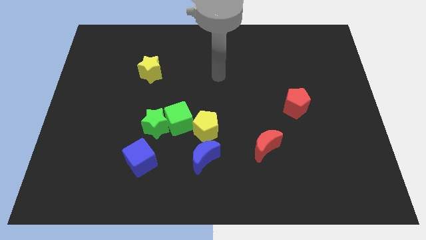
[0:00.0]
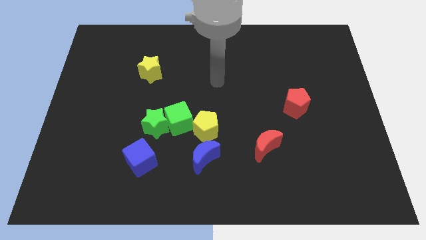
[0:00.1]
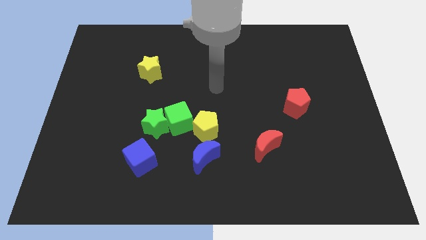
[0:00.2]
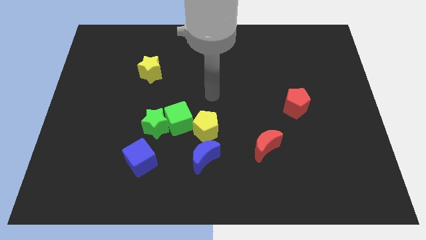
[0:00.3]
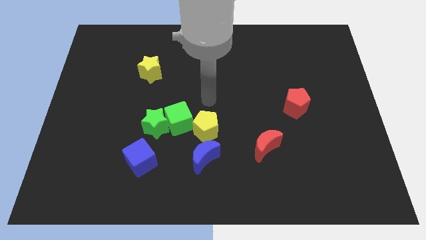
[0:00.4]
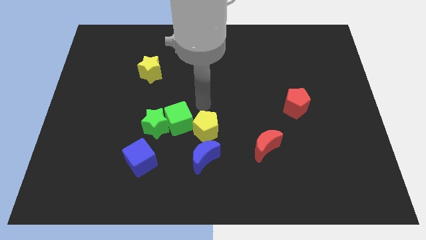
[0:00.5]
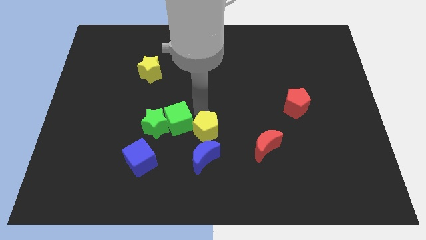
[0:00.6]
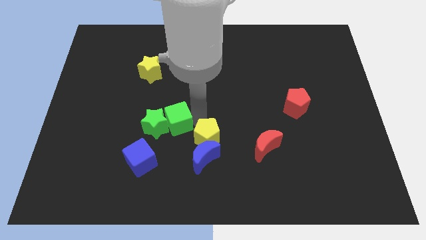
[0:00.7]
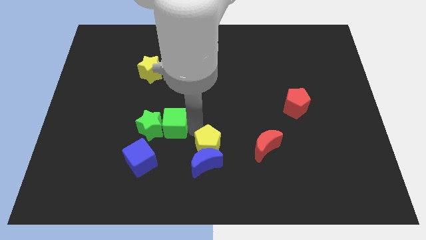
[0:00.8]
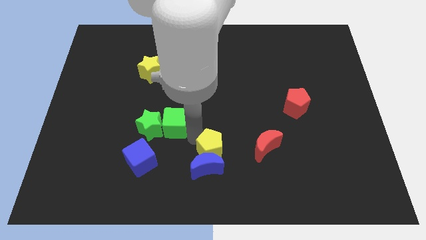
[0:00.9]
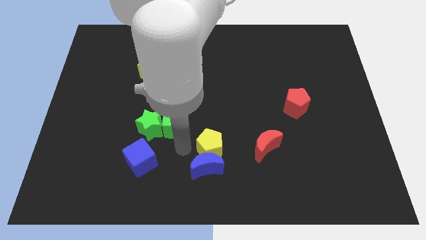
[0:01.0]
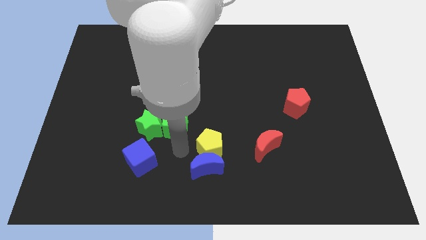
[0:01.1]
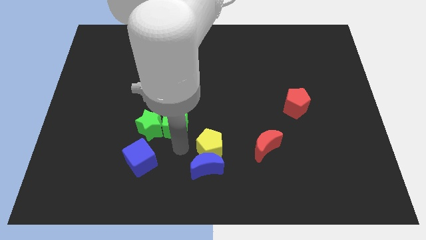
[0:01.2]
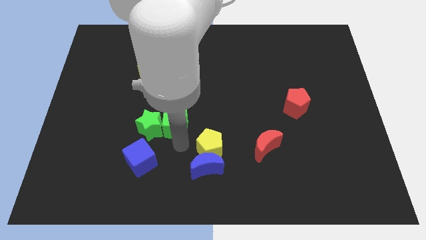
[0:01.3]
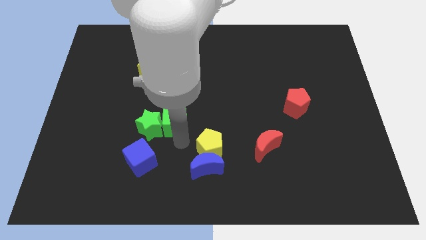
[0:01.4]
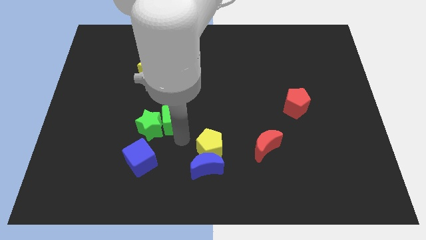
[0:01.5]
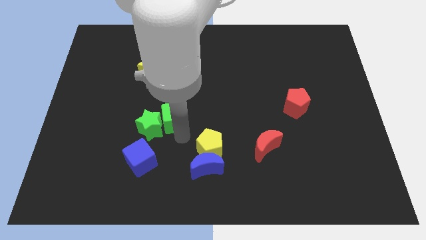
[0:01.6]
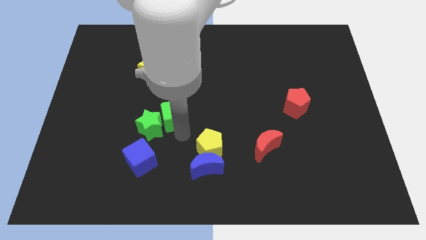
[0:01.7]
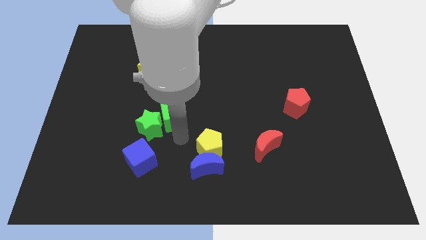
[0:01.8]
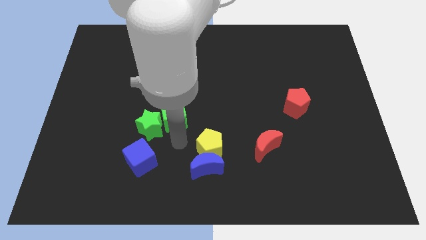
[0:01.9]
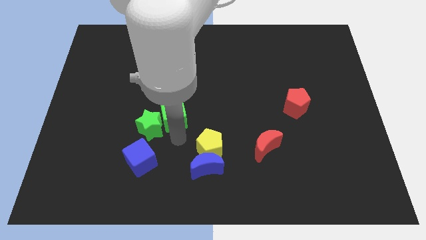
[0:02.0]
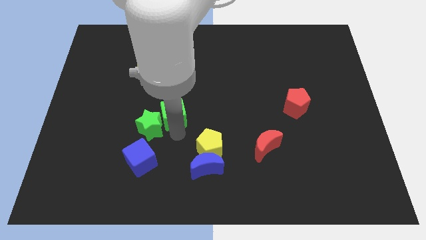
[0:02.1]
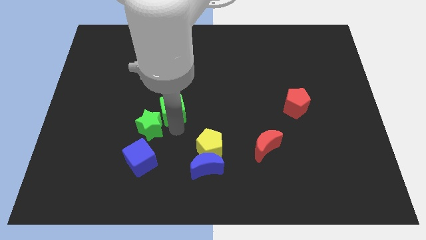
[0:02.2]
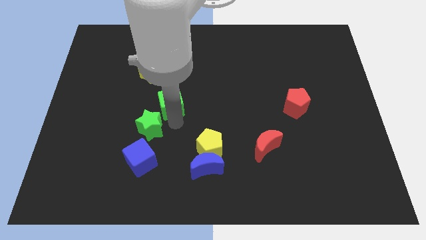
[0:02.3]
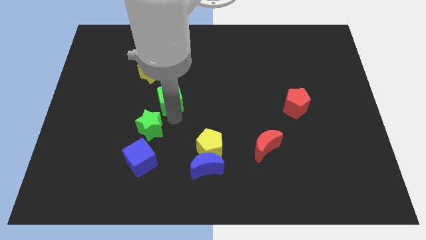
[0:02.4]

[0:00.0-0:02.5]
move the green cube away from the green star and yellow pentagon

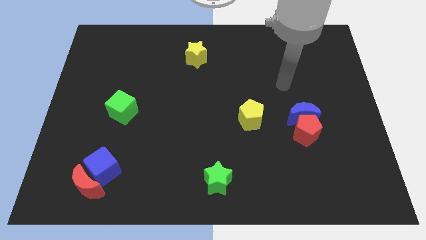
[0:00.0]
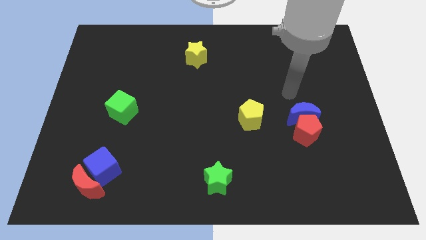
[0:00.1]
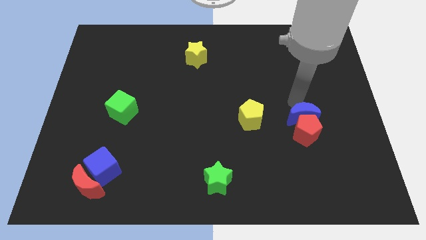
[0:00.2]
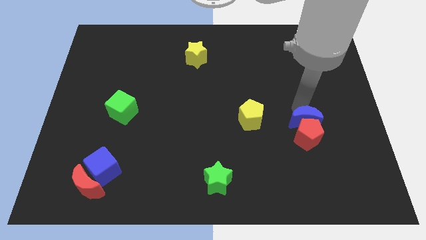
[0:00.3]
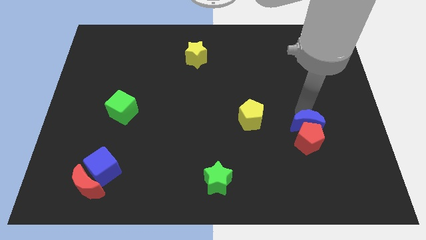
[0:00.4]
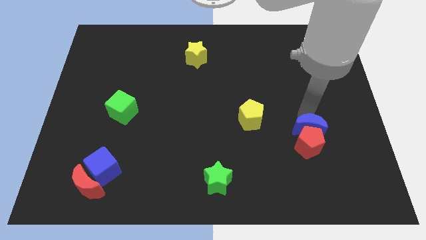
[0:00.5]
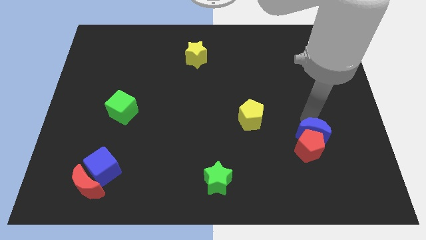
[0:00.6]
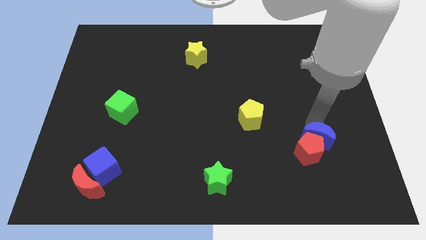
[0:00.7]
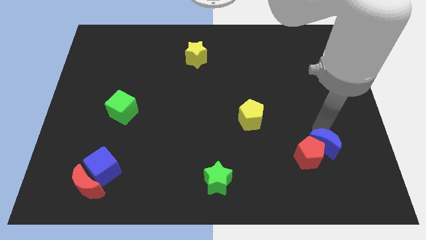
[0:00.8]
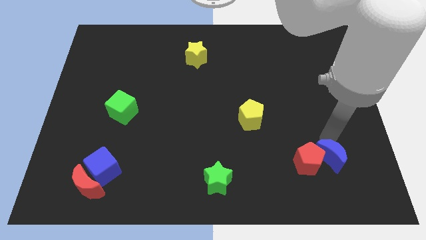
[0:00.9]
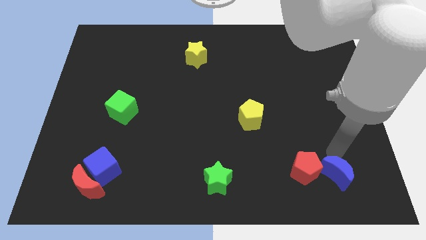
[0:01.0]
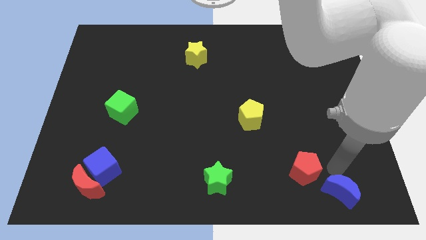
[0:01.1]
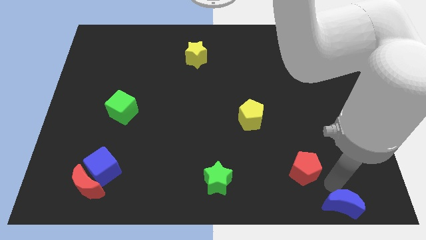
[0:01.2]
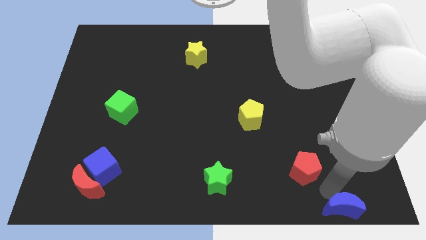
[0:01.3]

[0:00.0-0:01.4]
pull the red pentagon apart from the blue moon

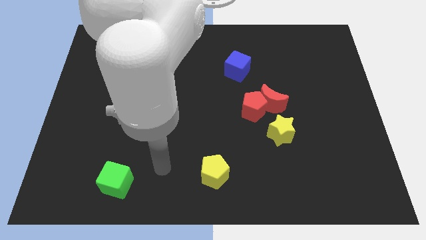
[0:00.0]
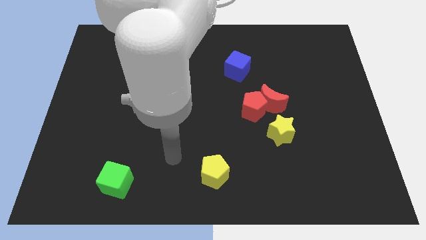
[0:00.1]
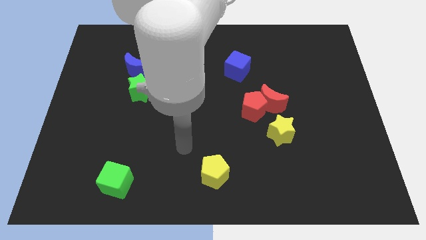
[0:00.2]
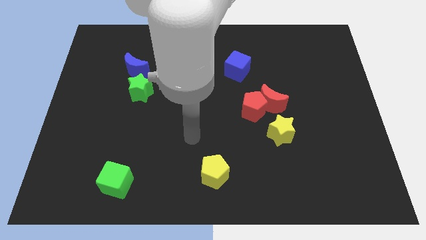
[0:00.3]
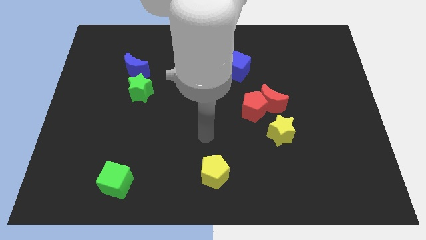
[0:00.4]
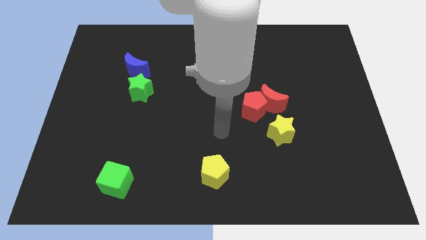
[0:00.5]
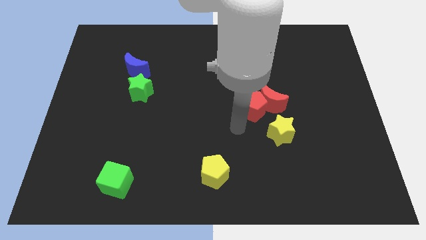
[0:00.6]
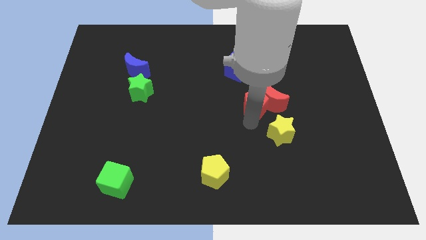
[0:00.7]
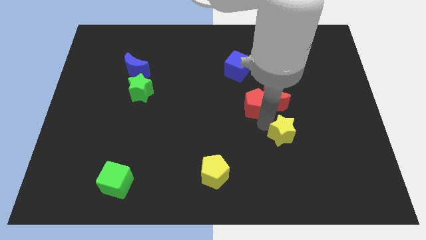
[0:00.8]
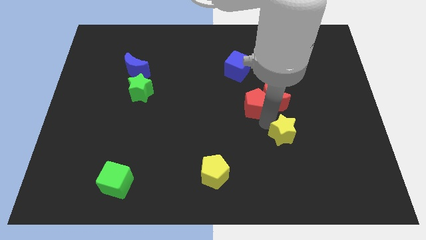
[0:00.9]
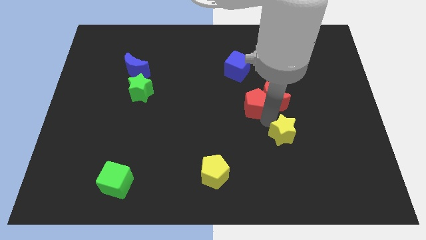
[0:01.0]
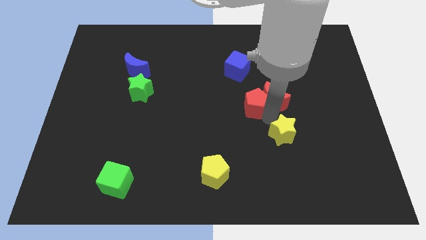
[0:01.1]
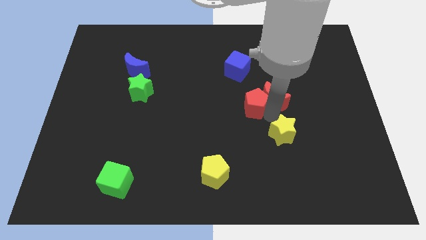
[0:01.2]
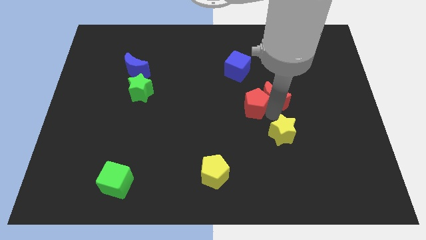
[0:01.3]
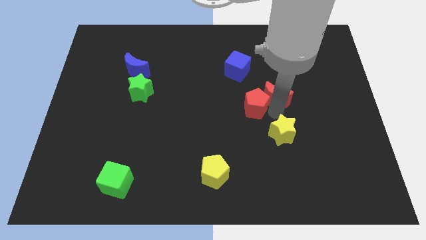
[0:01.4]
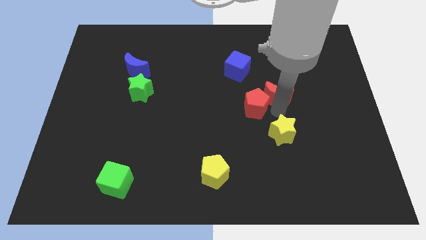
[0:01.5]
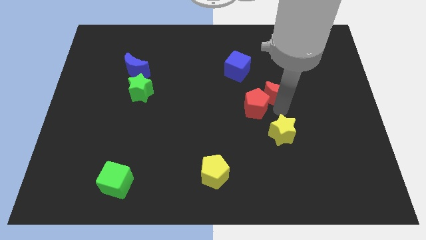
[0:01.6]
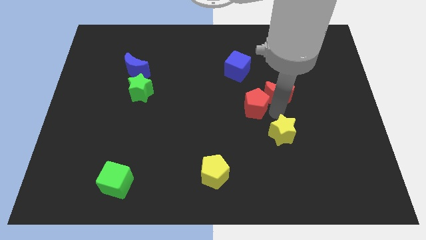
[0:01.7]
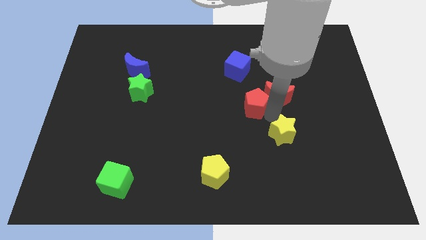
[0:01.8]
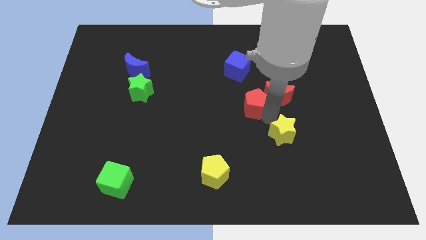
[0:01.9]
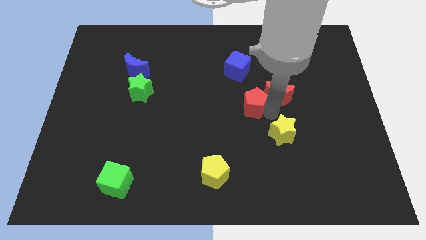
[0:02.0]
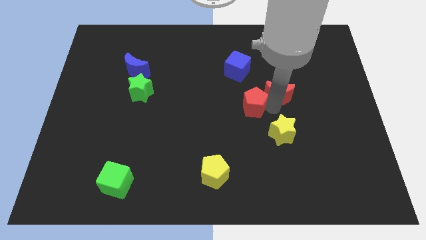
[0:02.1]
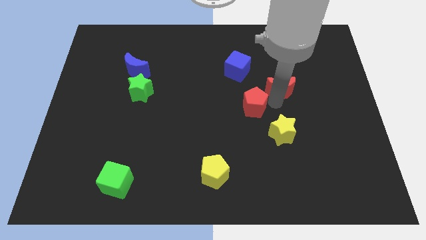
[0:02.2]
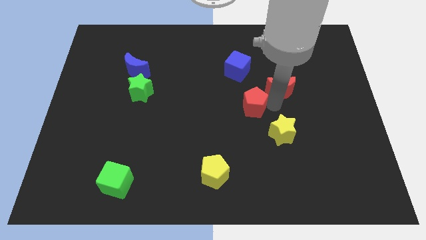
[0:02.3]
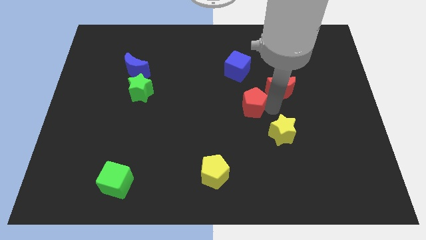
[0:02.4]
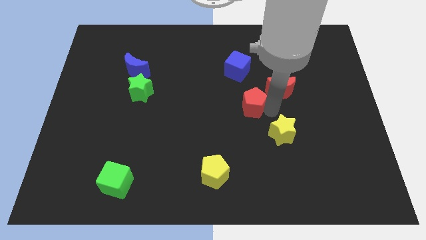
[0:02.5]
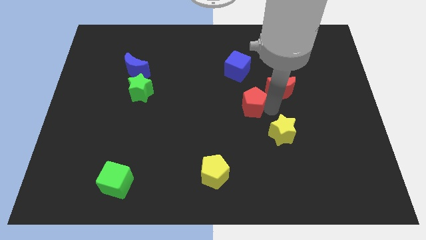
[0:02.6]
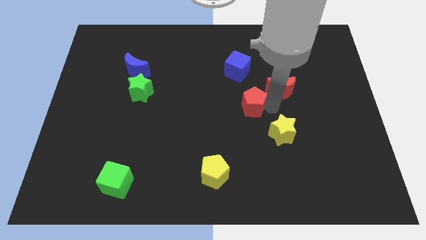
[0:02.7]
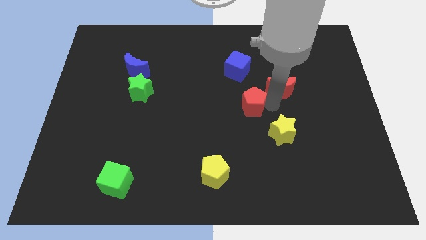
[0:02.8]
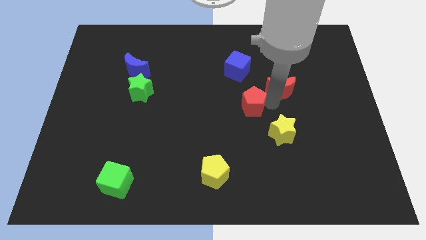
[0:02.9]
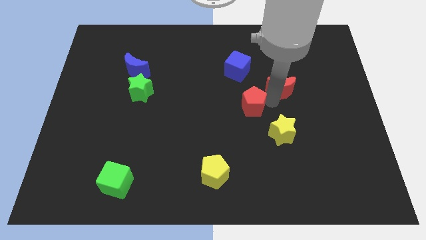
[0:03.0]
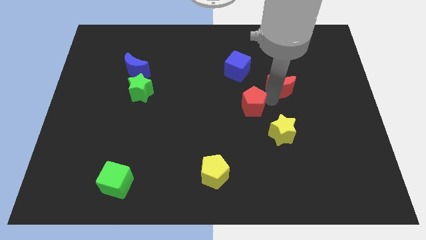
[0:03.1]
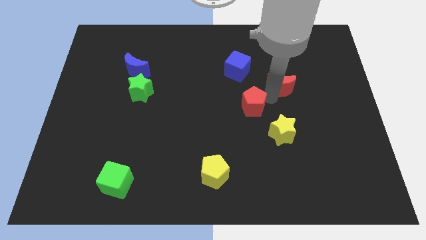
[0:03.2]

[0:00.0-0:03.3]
pull the red moon apart from the red pentagon and yellow star

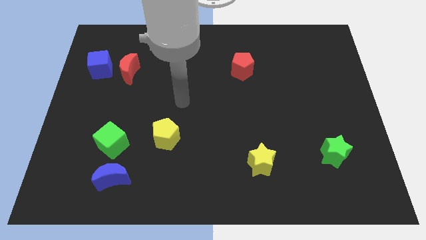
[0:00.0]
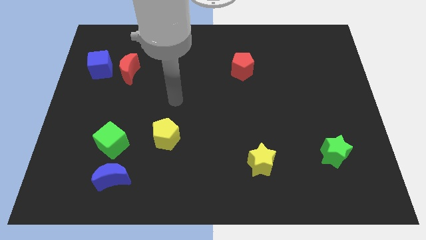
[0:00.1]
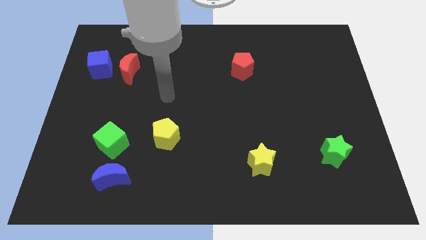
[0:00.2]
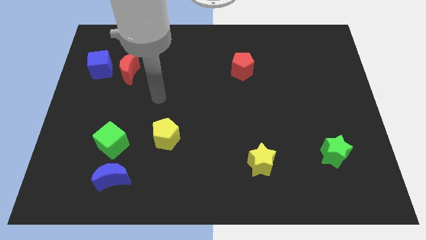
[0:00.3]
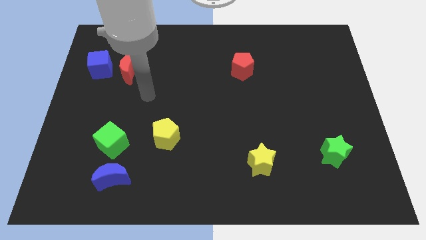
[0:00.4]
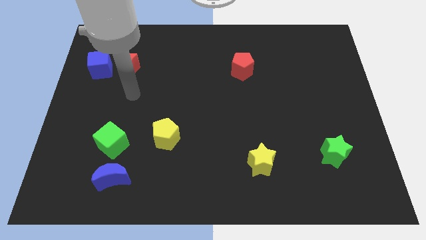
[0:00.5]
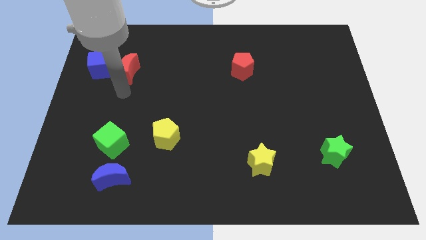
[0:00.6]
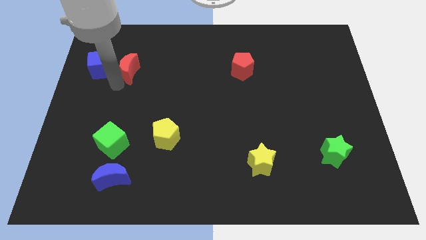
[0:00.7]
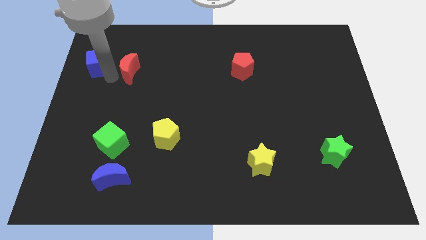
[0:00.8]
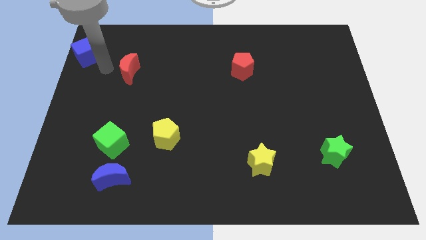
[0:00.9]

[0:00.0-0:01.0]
separate the red moon from the blue cube

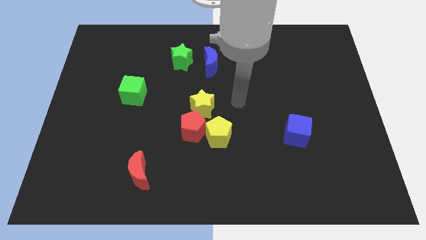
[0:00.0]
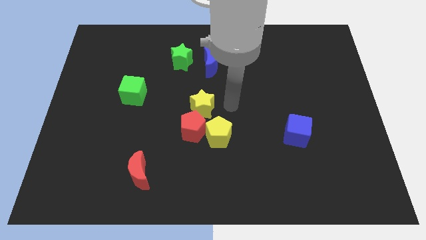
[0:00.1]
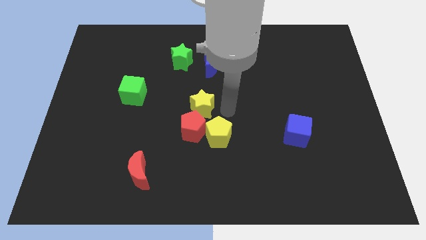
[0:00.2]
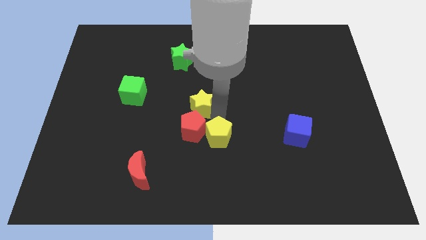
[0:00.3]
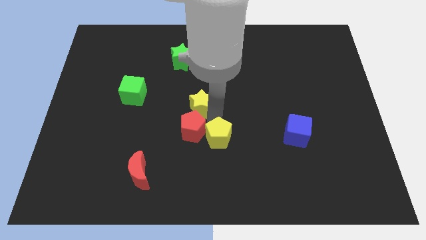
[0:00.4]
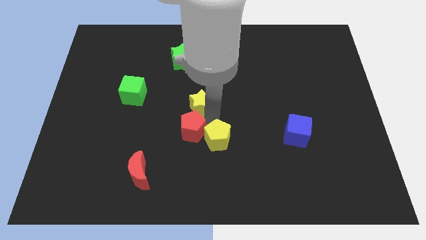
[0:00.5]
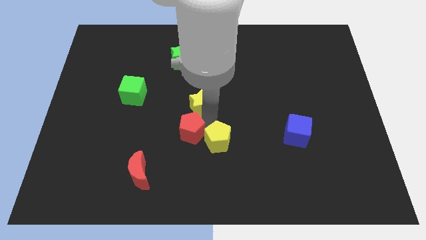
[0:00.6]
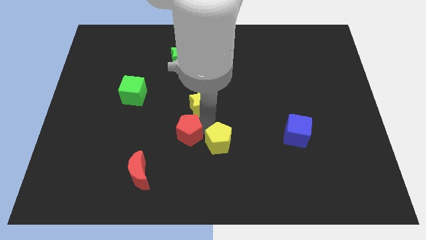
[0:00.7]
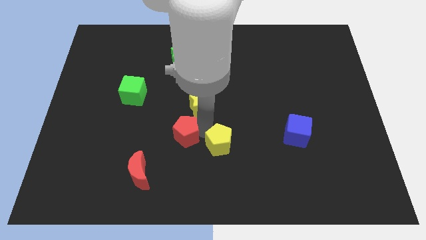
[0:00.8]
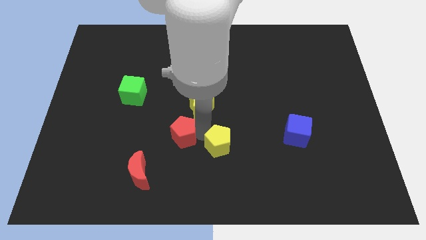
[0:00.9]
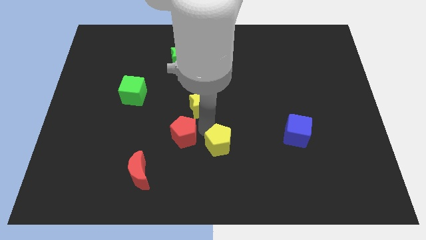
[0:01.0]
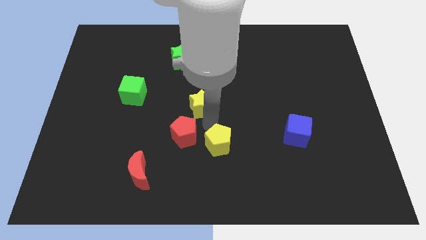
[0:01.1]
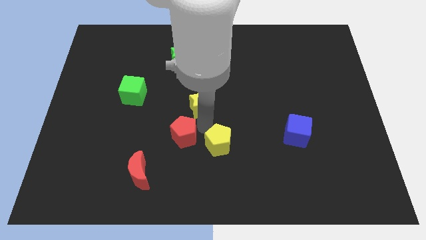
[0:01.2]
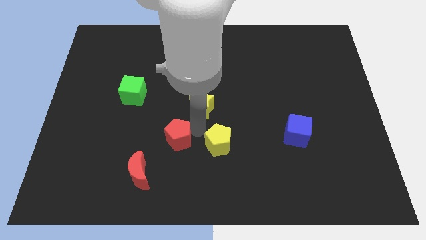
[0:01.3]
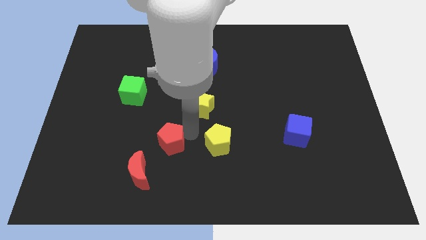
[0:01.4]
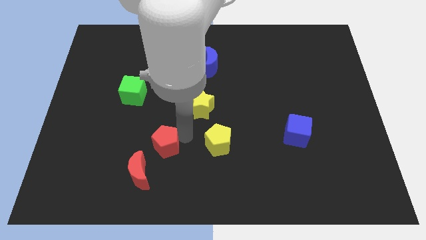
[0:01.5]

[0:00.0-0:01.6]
pull the red pentagon apart from the yellow pentagon and yellow star
